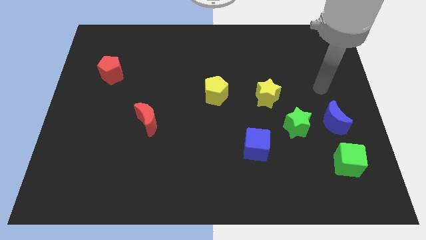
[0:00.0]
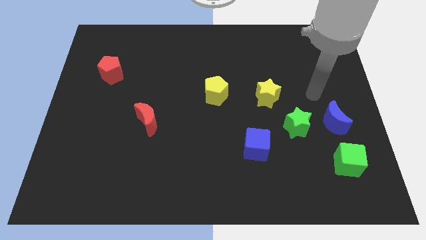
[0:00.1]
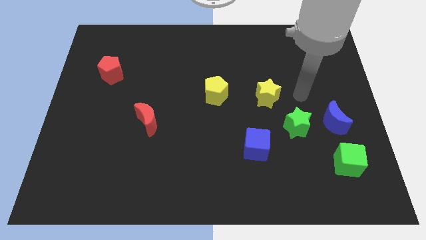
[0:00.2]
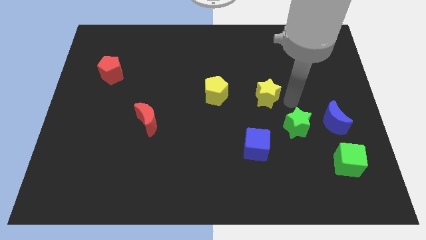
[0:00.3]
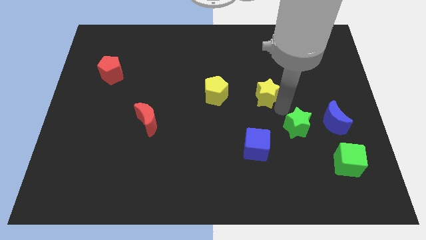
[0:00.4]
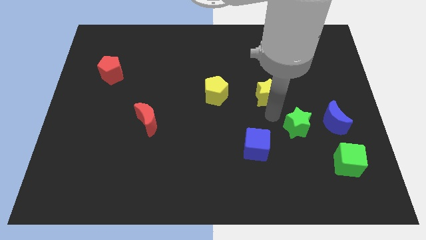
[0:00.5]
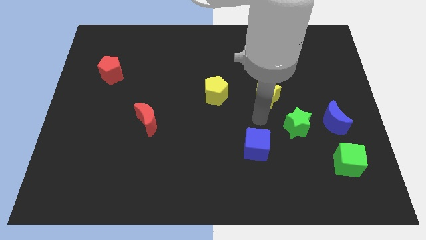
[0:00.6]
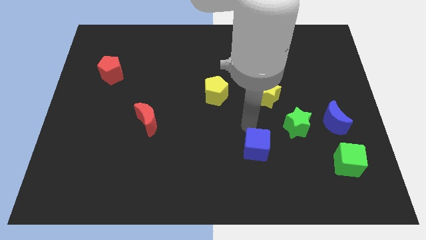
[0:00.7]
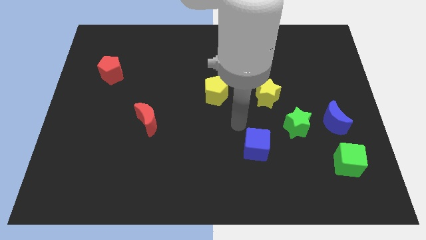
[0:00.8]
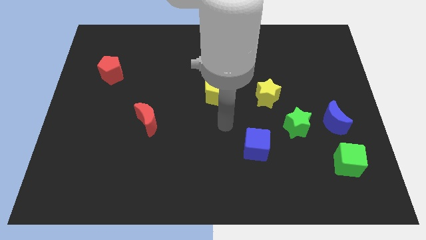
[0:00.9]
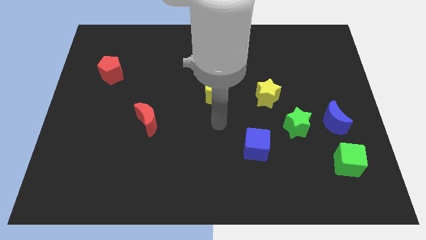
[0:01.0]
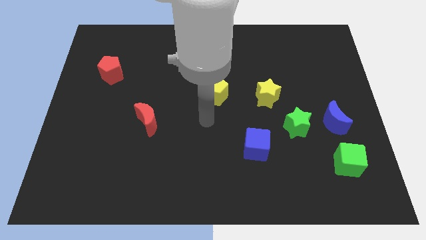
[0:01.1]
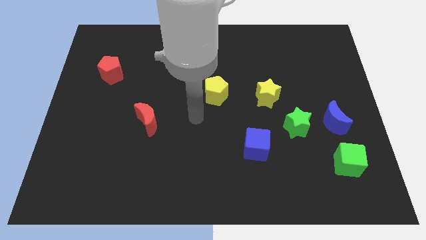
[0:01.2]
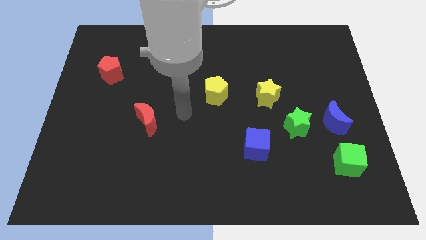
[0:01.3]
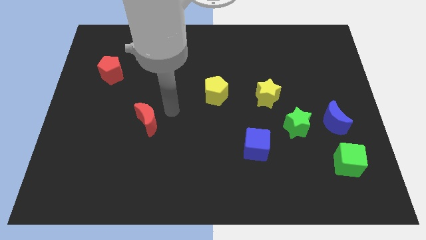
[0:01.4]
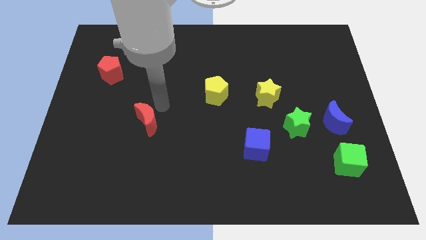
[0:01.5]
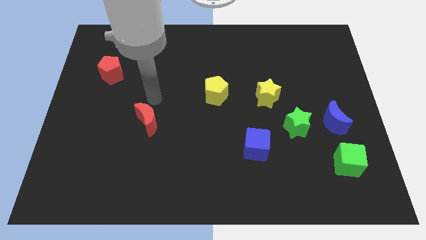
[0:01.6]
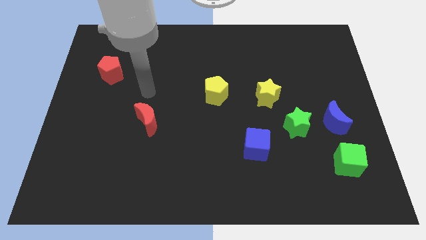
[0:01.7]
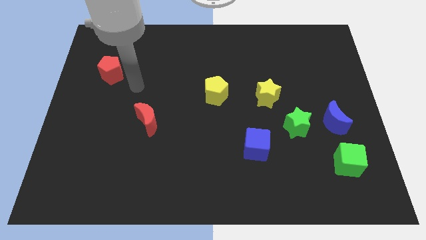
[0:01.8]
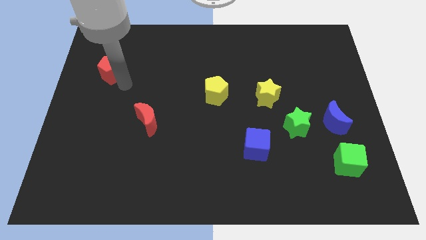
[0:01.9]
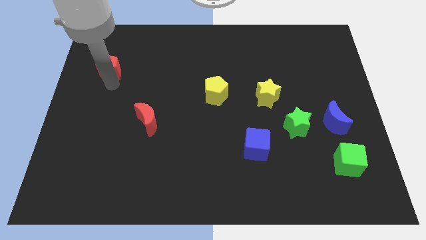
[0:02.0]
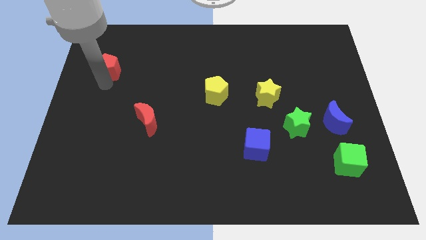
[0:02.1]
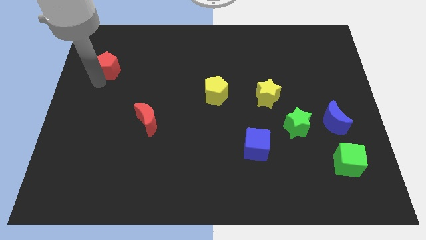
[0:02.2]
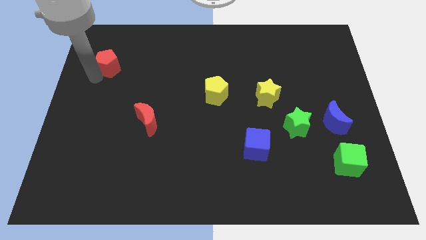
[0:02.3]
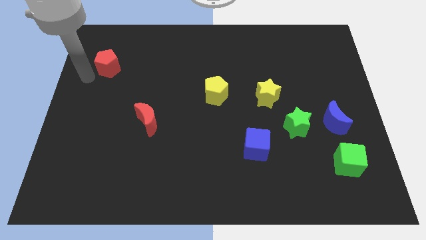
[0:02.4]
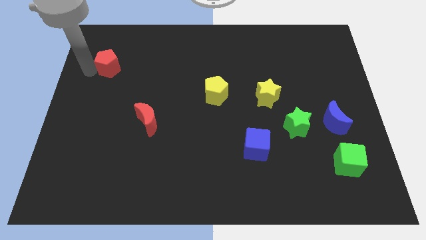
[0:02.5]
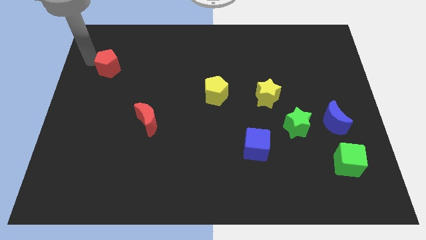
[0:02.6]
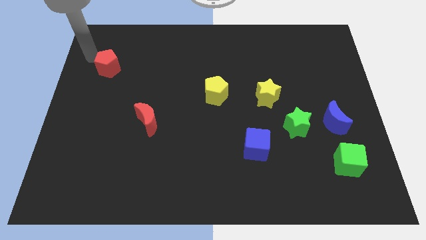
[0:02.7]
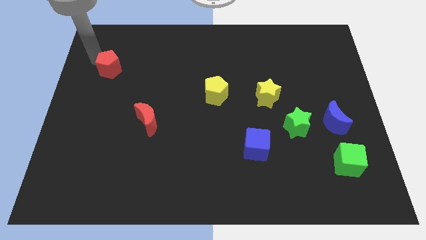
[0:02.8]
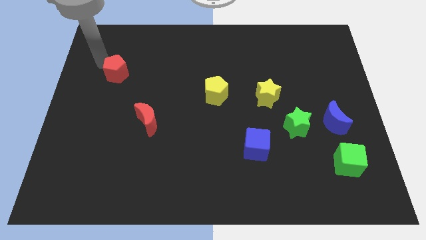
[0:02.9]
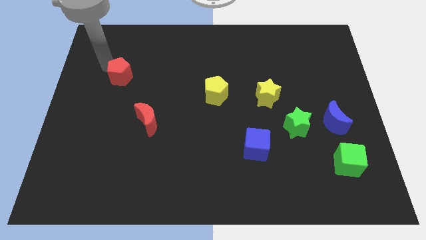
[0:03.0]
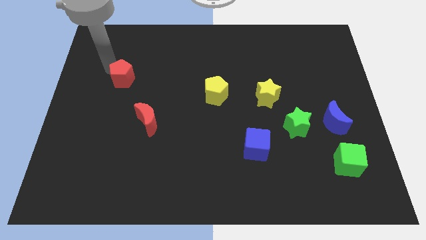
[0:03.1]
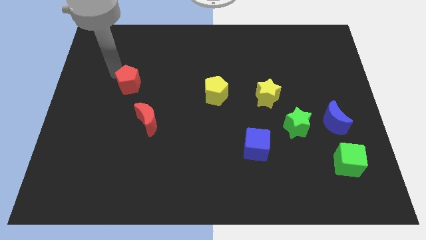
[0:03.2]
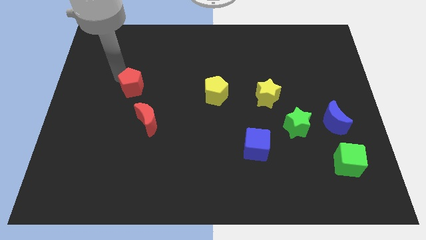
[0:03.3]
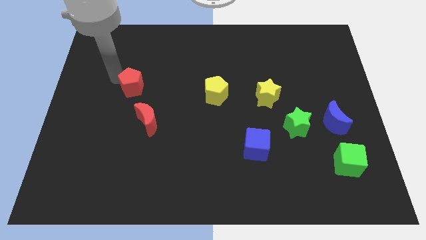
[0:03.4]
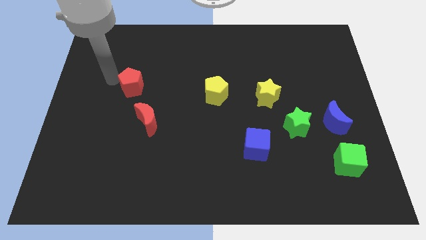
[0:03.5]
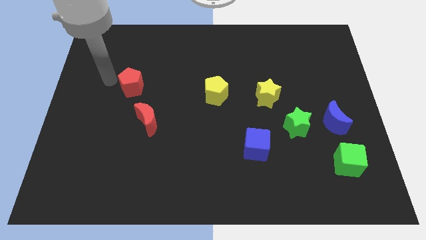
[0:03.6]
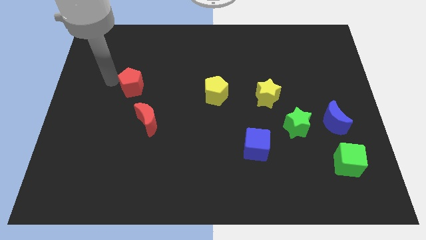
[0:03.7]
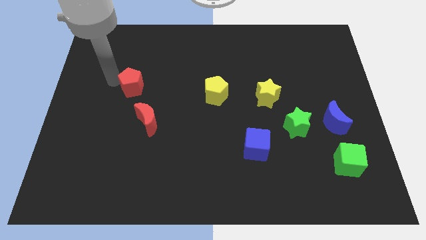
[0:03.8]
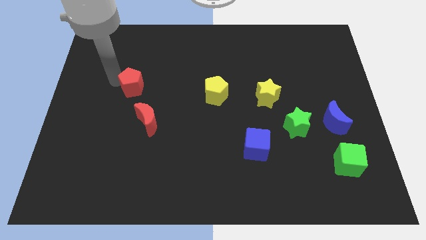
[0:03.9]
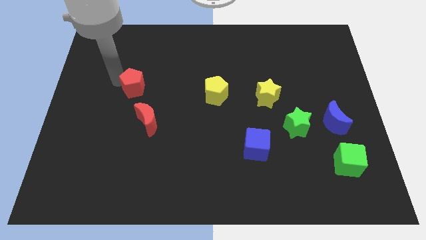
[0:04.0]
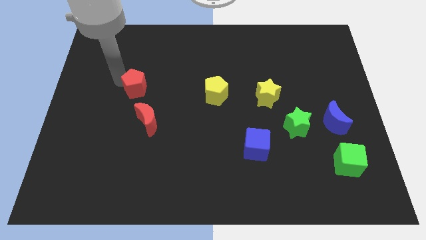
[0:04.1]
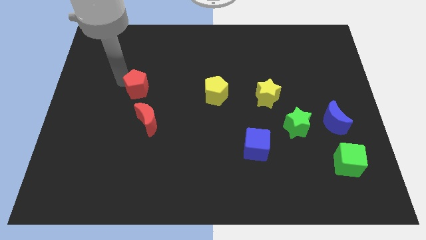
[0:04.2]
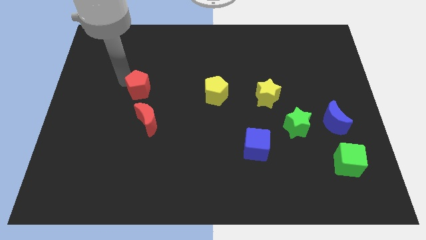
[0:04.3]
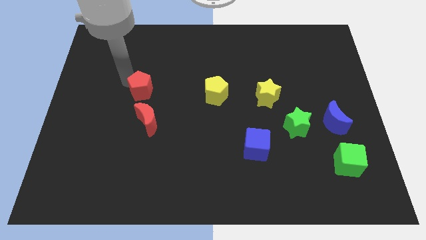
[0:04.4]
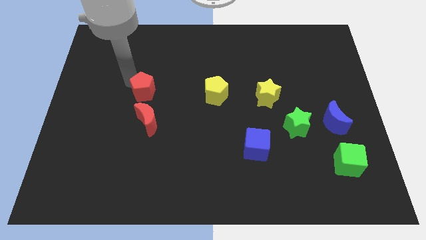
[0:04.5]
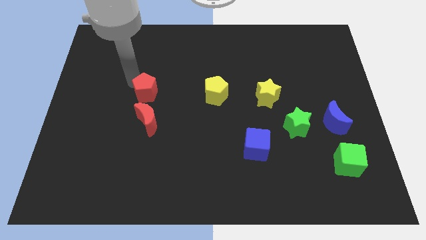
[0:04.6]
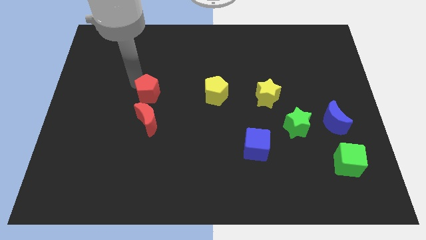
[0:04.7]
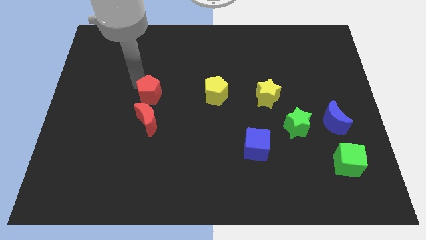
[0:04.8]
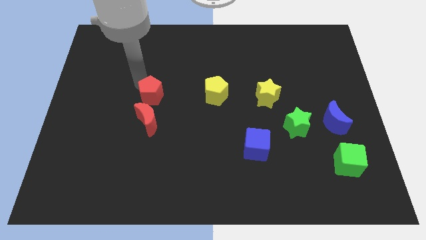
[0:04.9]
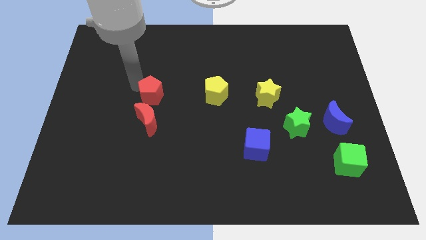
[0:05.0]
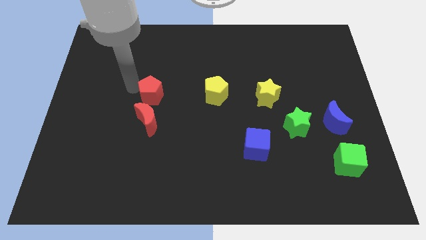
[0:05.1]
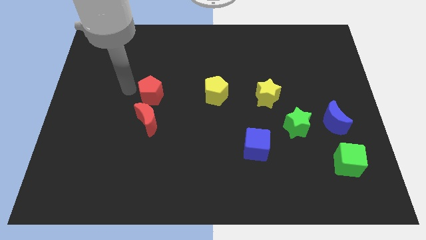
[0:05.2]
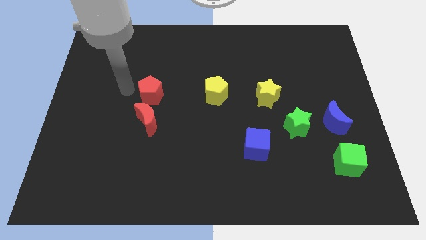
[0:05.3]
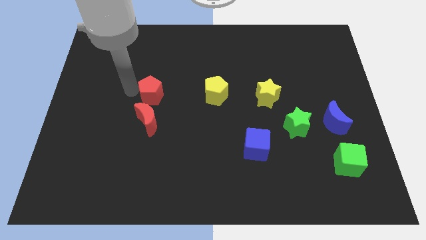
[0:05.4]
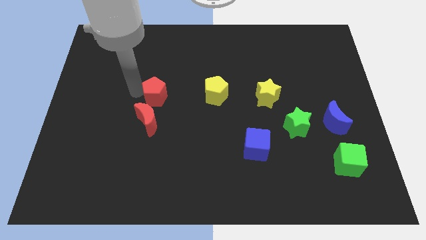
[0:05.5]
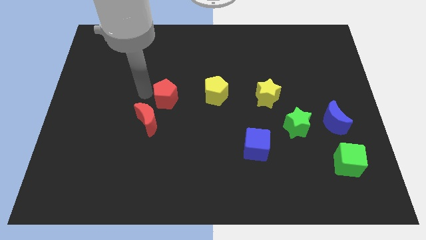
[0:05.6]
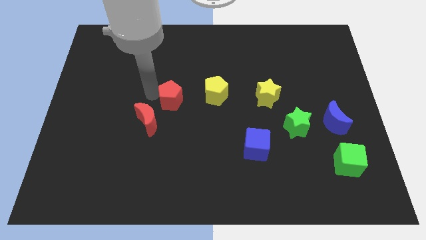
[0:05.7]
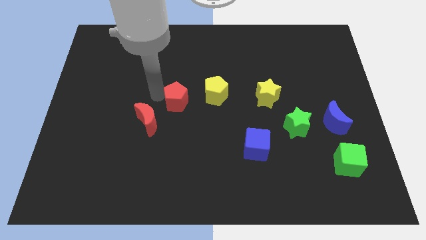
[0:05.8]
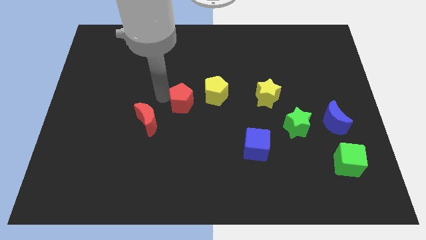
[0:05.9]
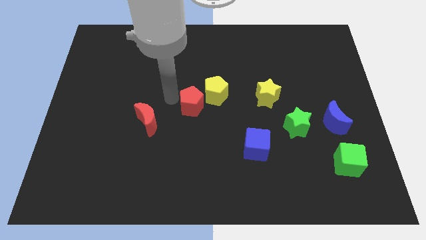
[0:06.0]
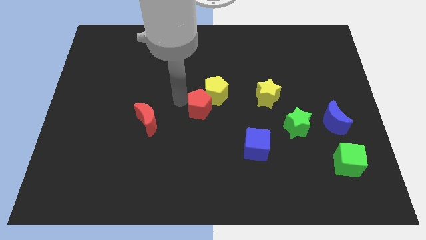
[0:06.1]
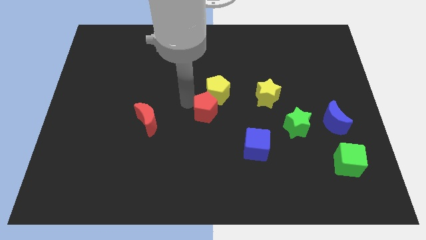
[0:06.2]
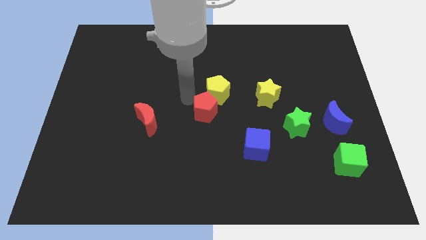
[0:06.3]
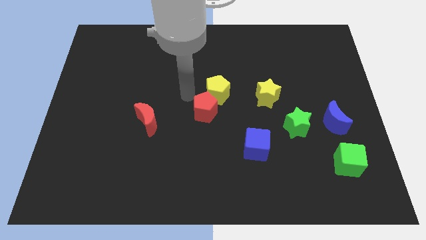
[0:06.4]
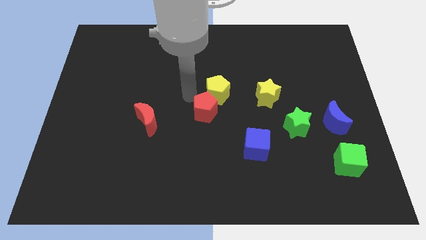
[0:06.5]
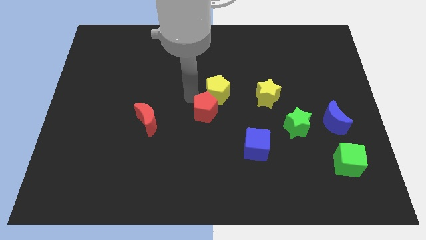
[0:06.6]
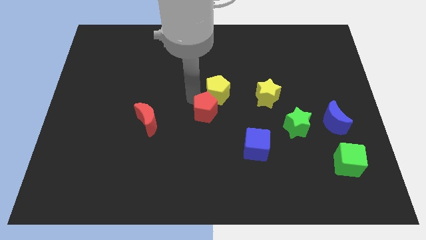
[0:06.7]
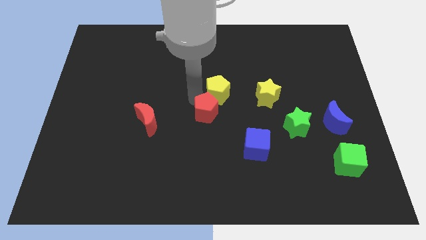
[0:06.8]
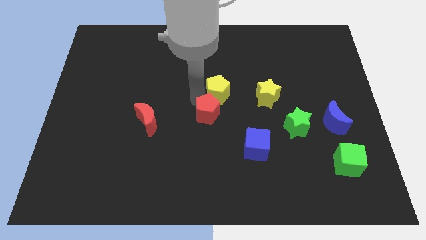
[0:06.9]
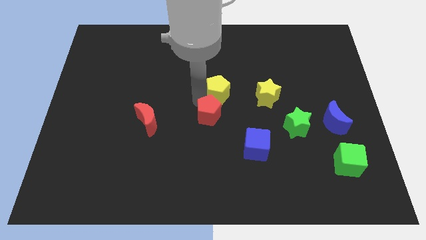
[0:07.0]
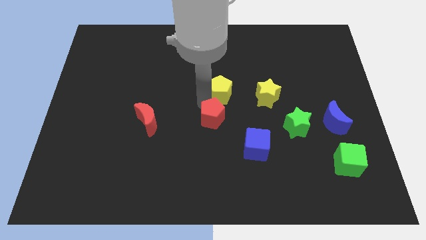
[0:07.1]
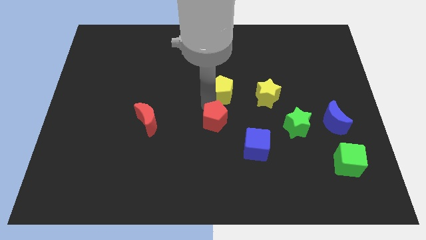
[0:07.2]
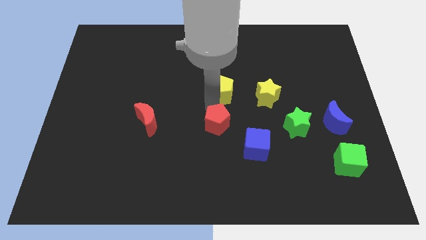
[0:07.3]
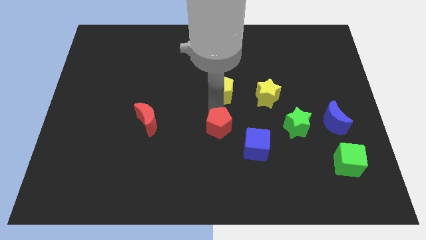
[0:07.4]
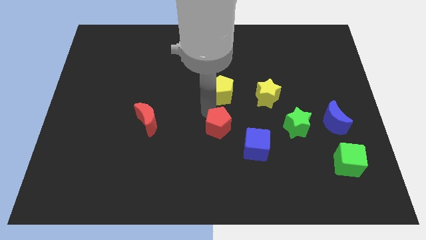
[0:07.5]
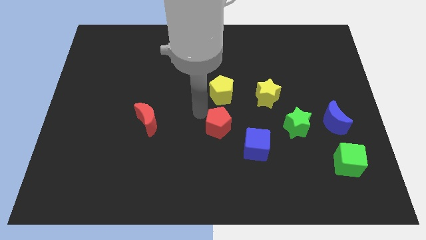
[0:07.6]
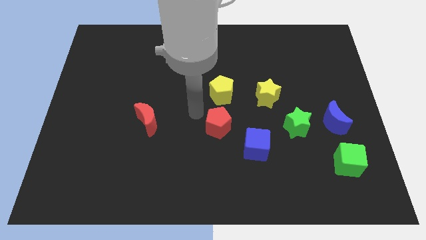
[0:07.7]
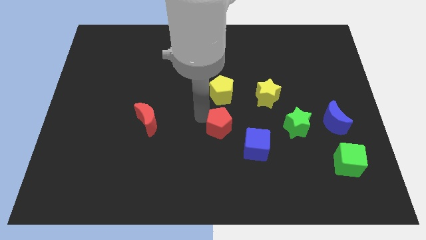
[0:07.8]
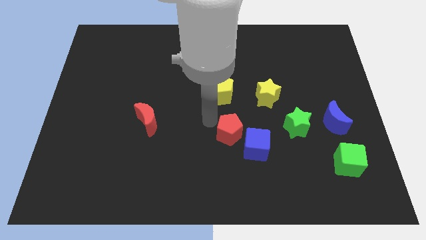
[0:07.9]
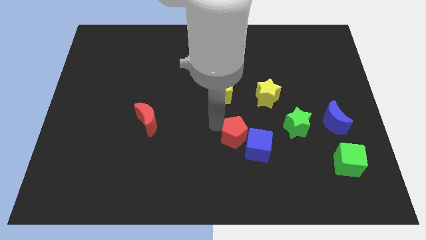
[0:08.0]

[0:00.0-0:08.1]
move the red pentagon towards the blue cube
